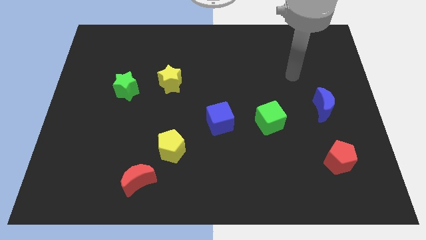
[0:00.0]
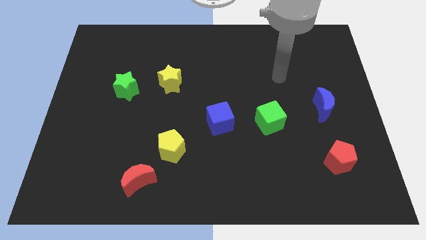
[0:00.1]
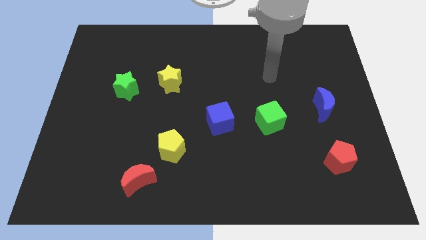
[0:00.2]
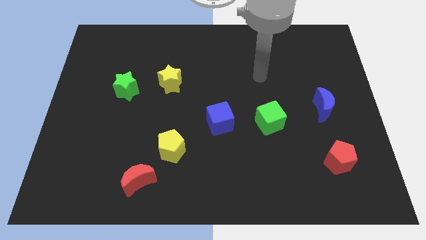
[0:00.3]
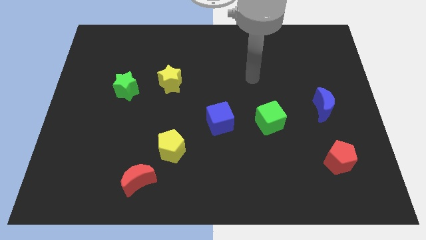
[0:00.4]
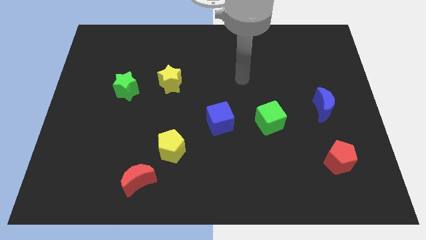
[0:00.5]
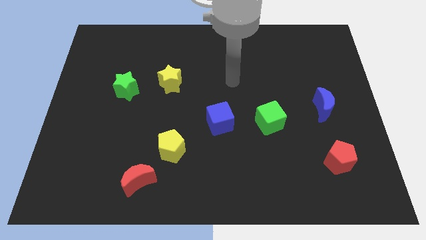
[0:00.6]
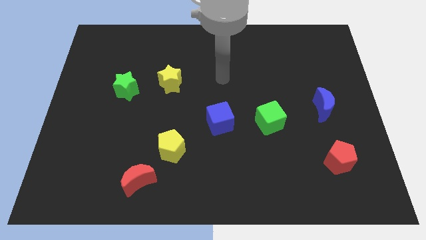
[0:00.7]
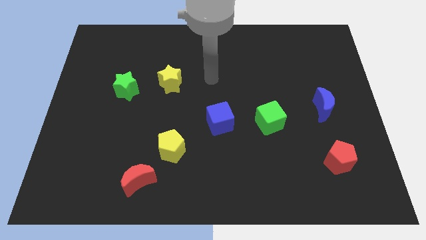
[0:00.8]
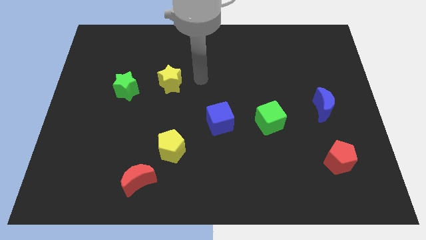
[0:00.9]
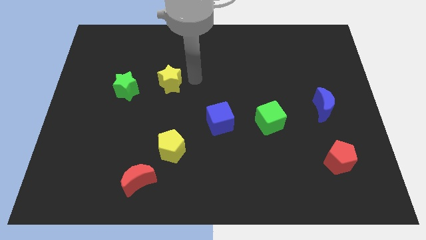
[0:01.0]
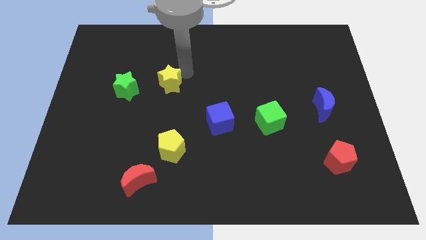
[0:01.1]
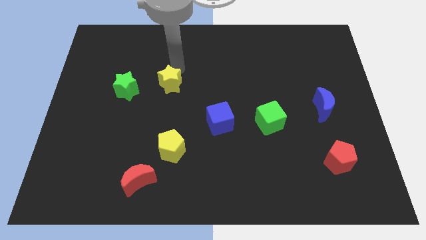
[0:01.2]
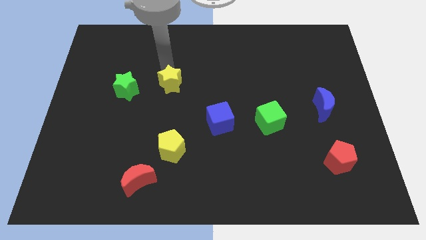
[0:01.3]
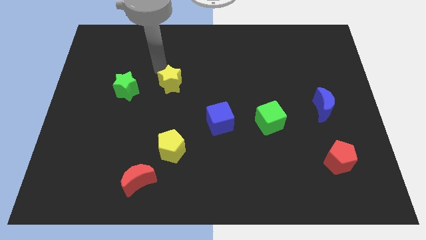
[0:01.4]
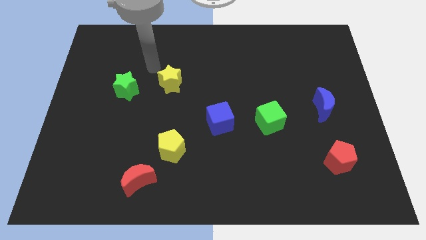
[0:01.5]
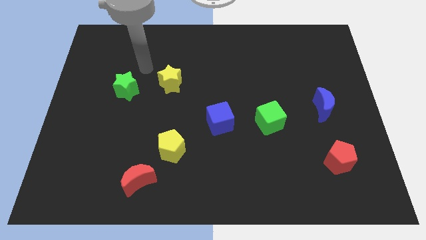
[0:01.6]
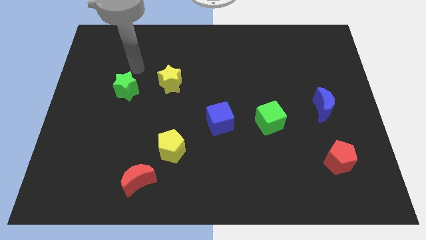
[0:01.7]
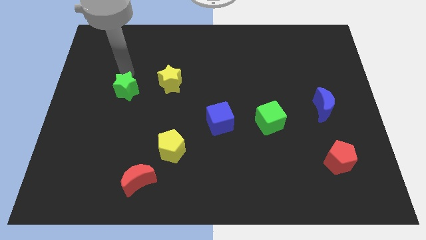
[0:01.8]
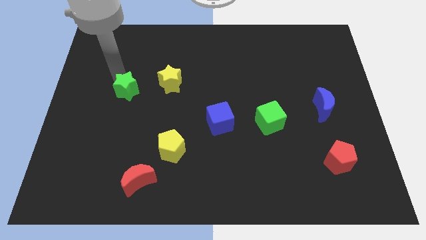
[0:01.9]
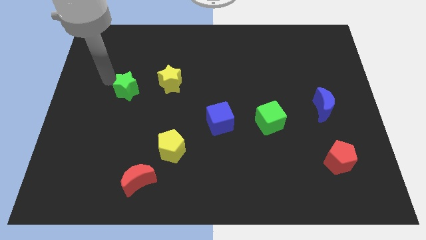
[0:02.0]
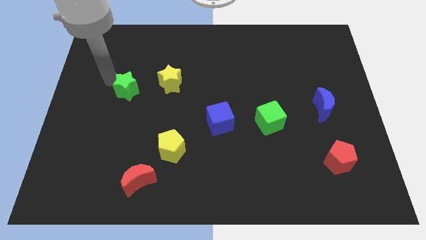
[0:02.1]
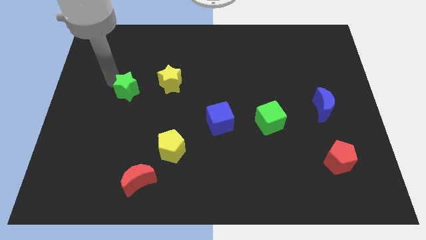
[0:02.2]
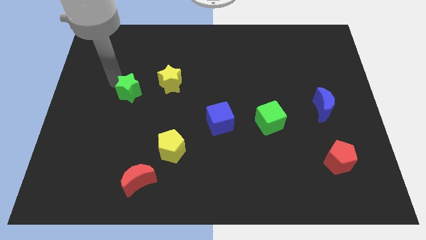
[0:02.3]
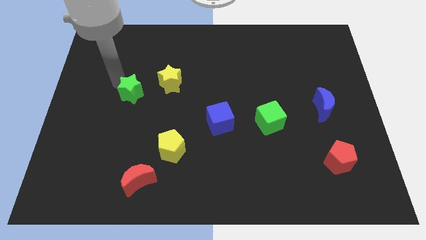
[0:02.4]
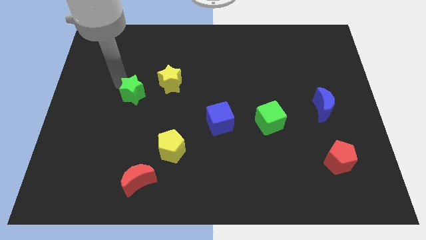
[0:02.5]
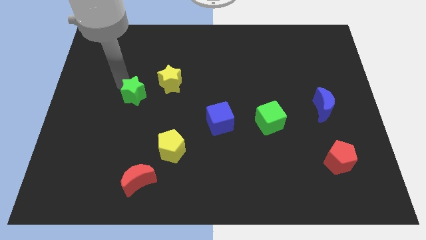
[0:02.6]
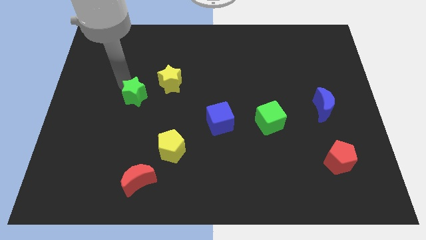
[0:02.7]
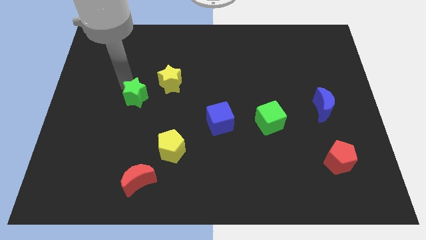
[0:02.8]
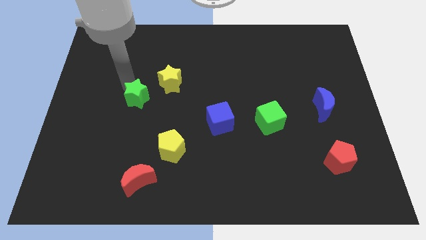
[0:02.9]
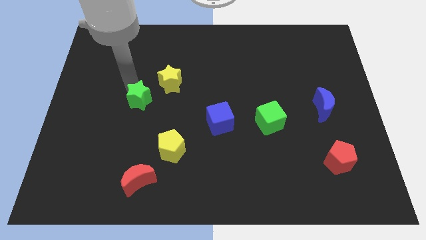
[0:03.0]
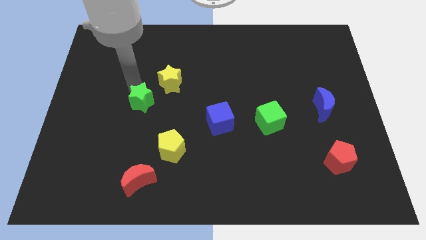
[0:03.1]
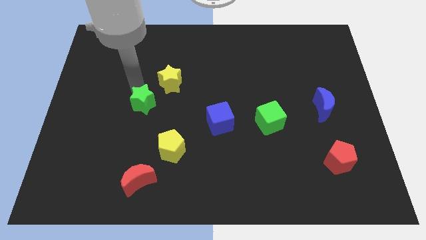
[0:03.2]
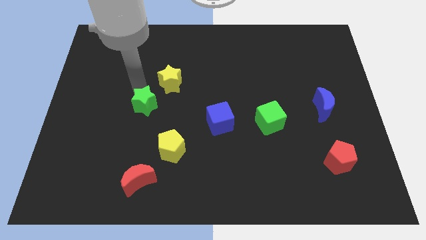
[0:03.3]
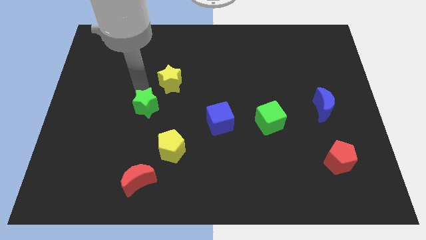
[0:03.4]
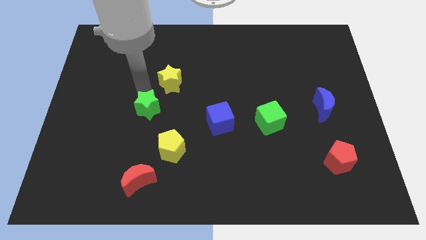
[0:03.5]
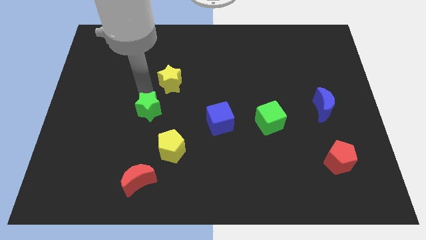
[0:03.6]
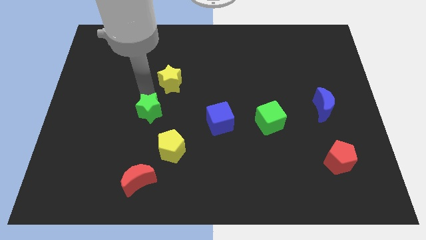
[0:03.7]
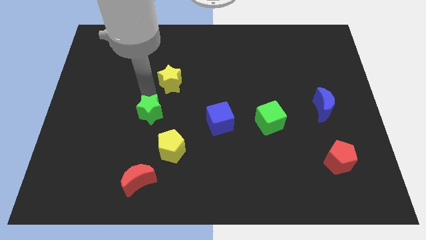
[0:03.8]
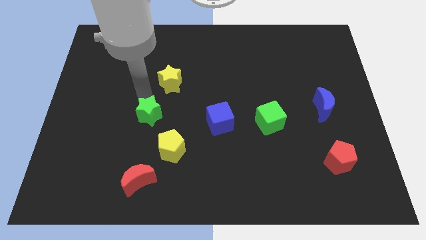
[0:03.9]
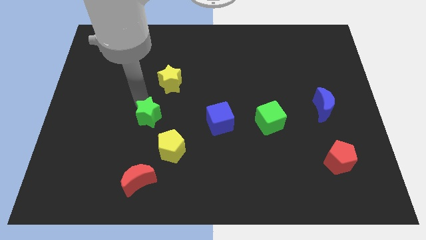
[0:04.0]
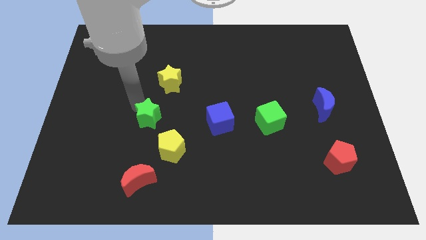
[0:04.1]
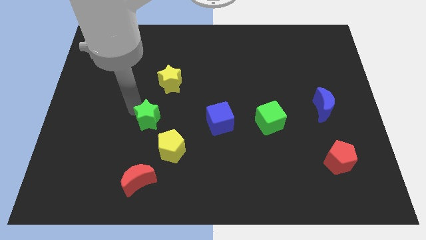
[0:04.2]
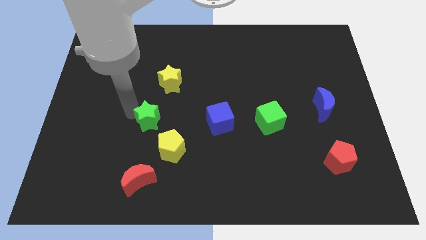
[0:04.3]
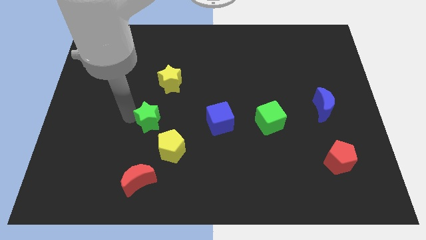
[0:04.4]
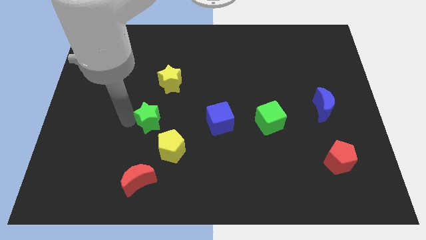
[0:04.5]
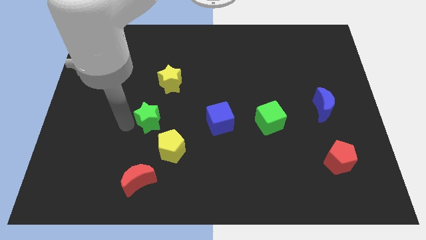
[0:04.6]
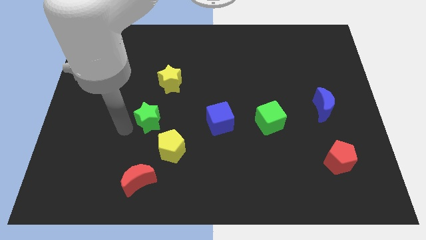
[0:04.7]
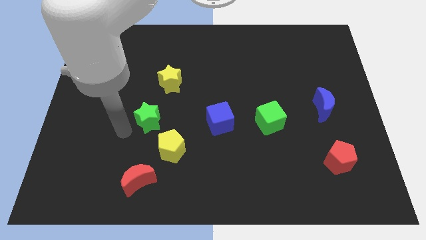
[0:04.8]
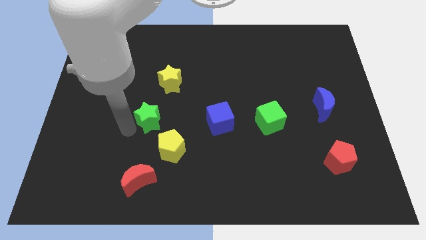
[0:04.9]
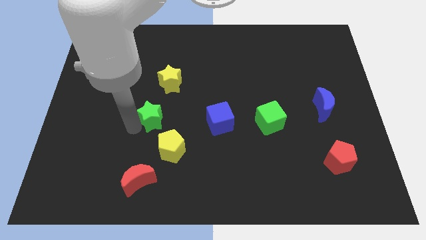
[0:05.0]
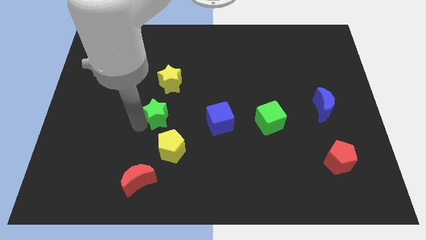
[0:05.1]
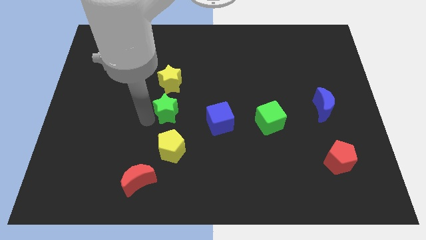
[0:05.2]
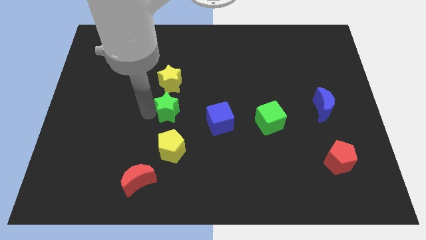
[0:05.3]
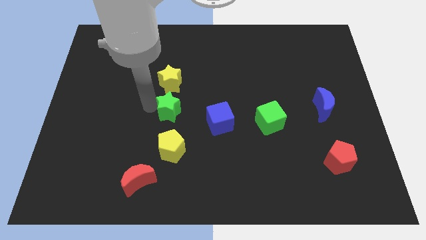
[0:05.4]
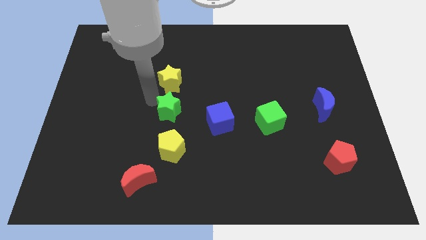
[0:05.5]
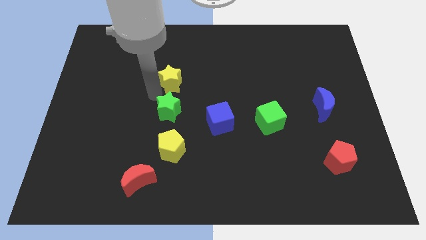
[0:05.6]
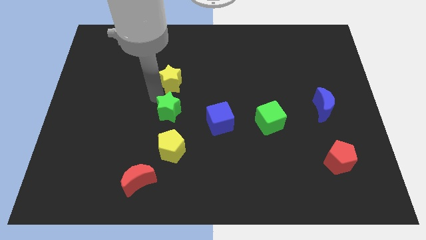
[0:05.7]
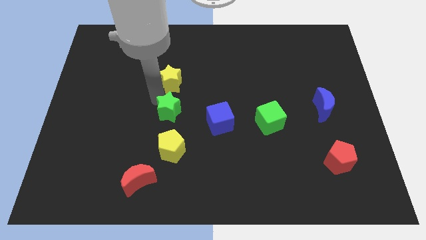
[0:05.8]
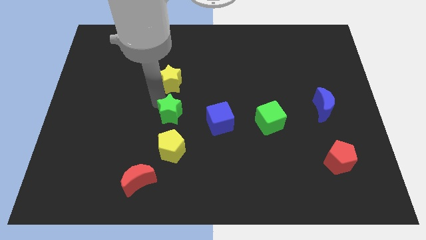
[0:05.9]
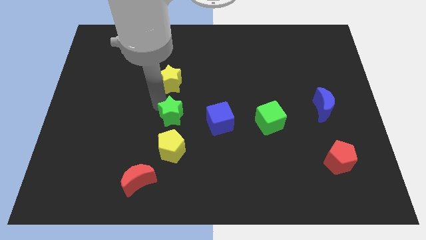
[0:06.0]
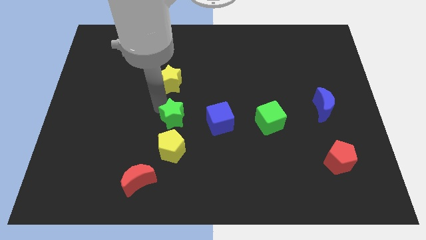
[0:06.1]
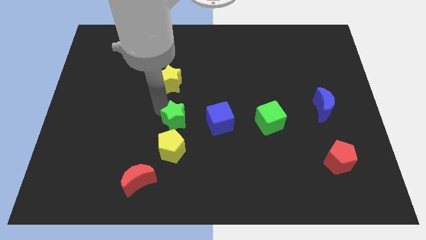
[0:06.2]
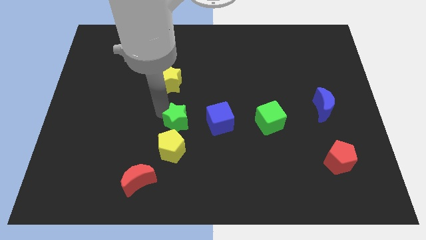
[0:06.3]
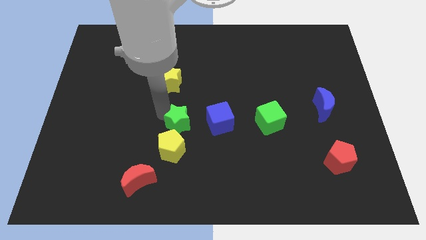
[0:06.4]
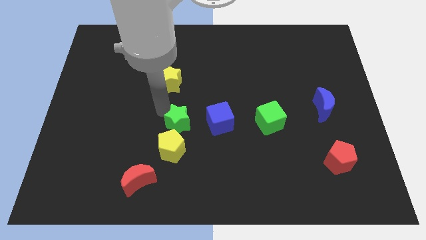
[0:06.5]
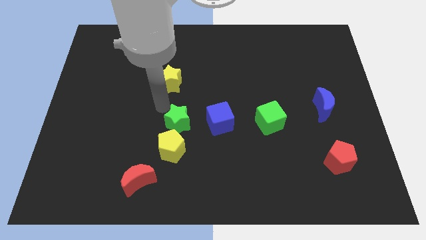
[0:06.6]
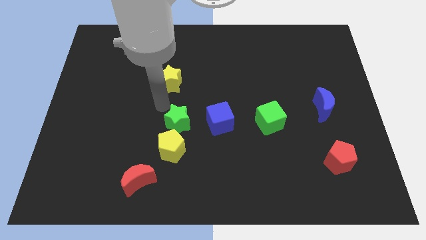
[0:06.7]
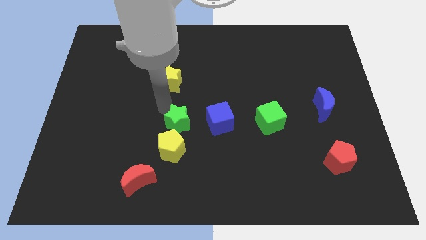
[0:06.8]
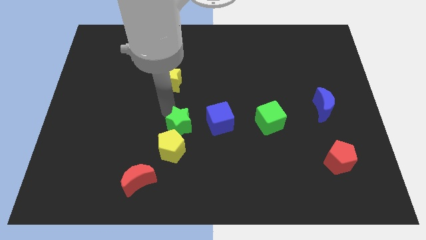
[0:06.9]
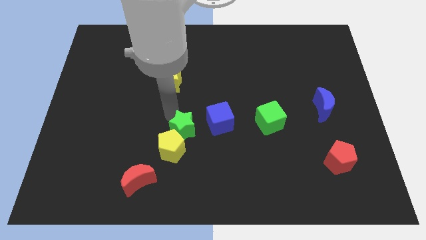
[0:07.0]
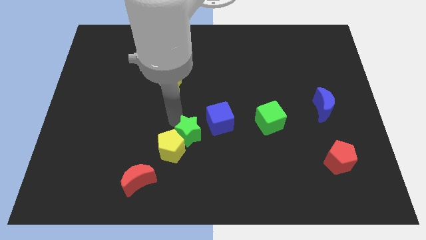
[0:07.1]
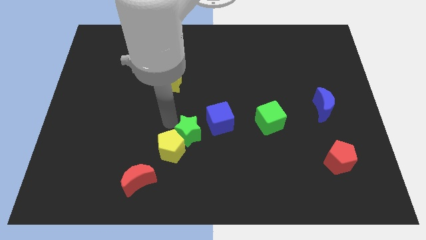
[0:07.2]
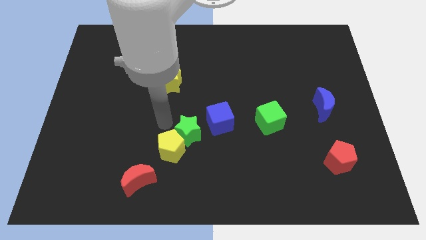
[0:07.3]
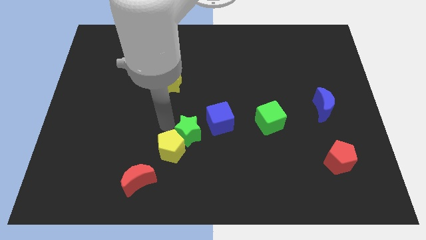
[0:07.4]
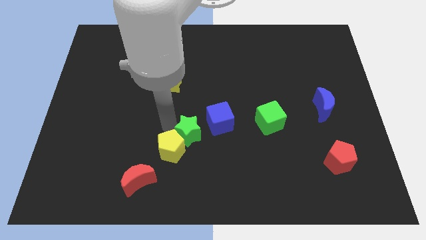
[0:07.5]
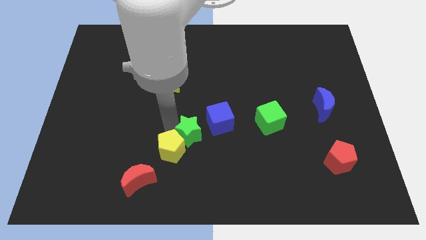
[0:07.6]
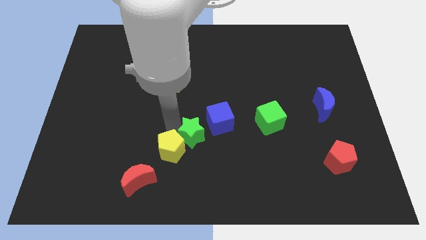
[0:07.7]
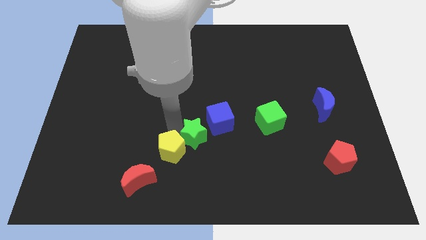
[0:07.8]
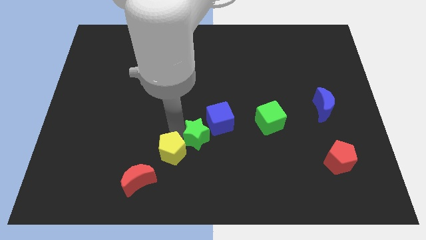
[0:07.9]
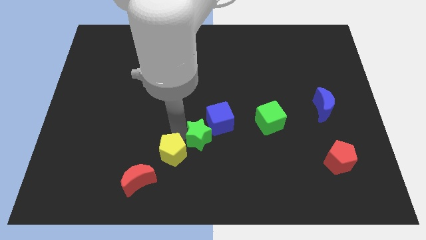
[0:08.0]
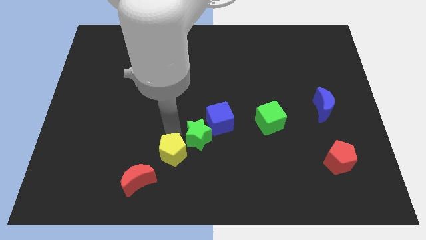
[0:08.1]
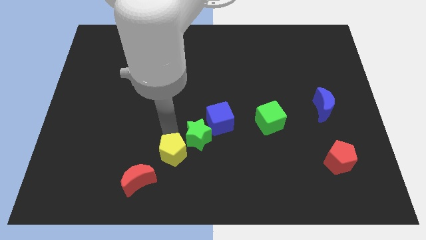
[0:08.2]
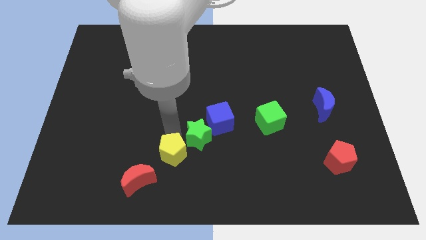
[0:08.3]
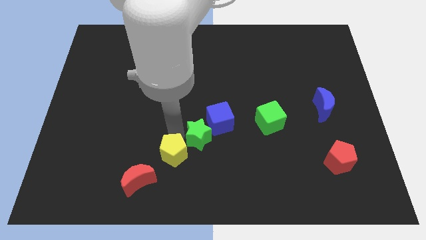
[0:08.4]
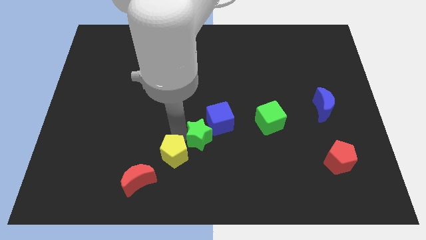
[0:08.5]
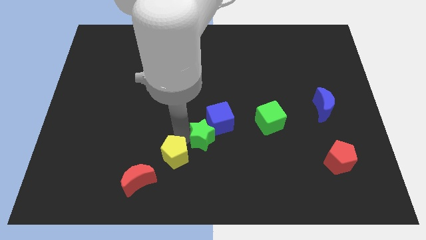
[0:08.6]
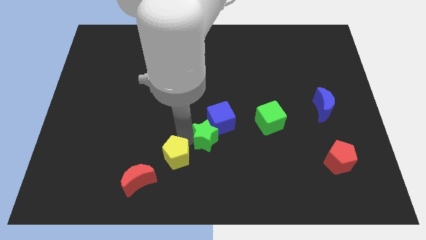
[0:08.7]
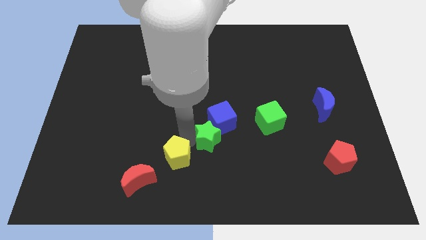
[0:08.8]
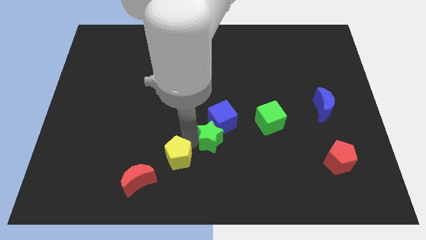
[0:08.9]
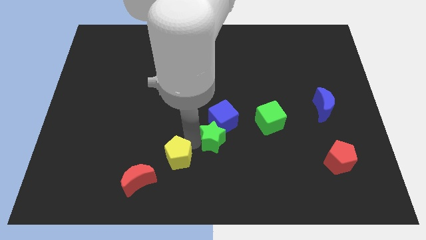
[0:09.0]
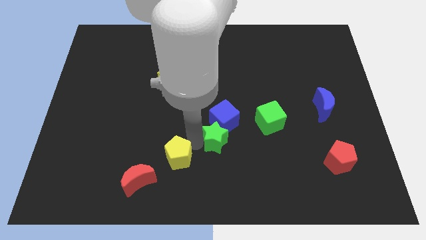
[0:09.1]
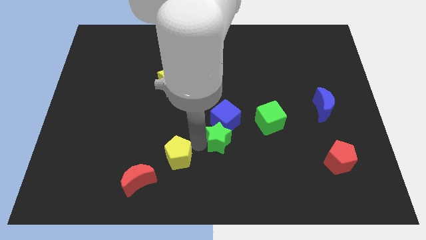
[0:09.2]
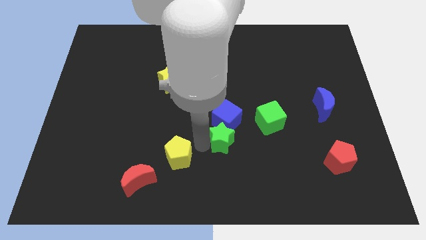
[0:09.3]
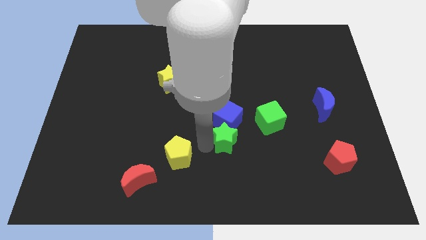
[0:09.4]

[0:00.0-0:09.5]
put the green star to the bottom left of the green cube
